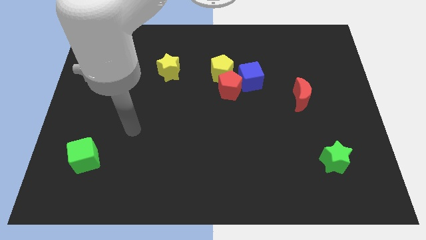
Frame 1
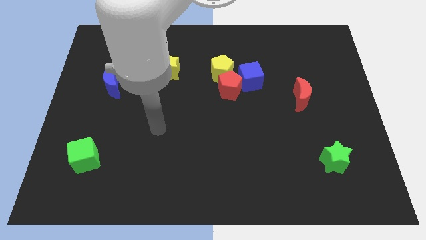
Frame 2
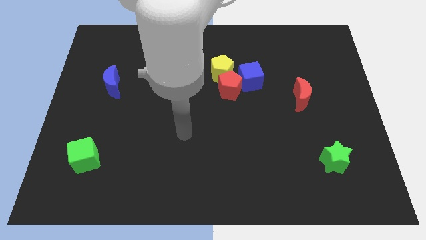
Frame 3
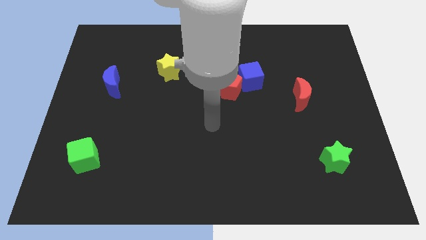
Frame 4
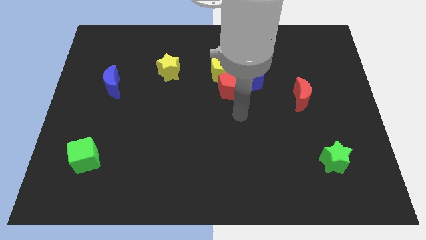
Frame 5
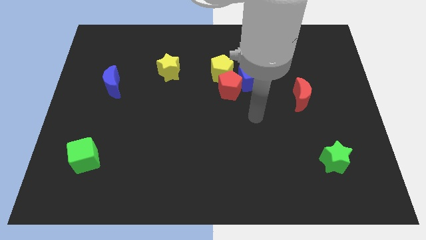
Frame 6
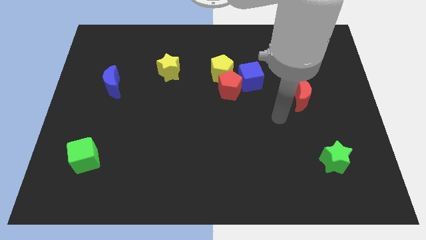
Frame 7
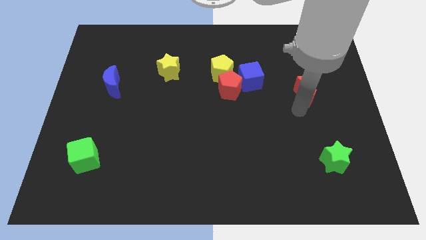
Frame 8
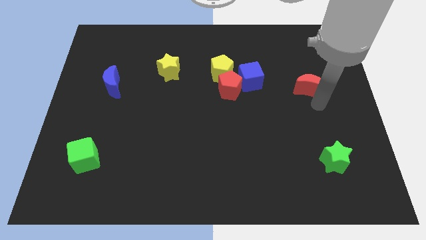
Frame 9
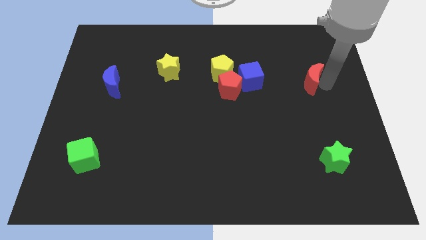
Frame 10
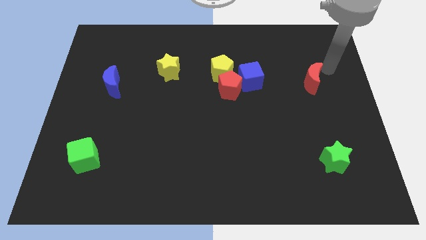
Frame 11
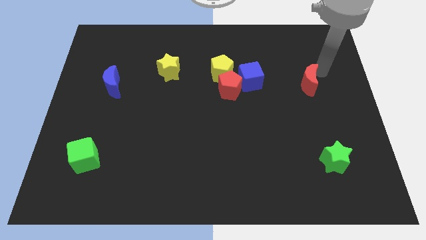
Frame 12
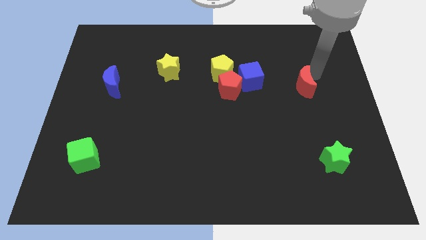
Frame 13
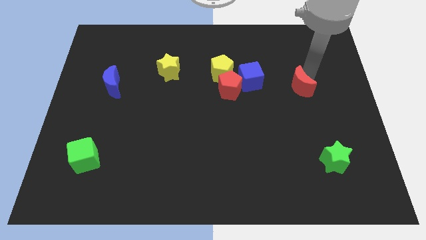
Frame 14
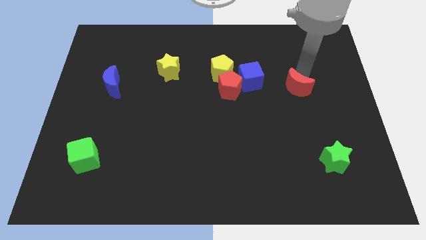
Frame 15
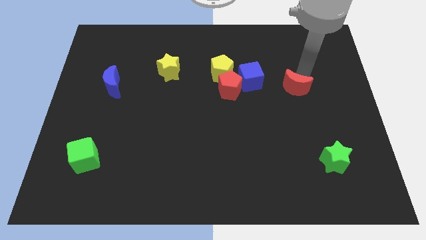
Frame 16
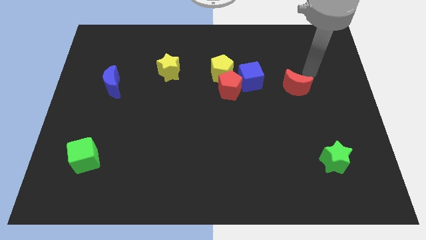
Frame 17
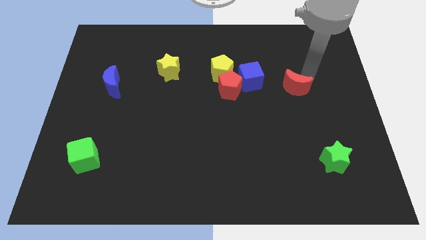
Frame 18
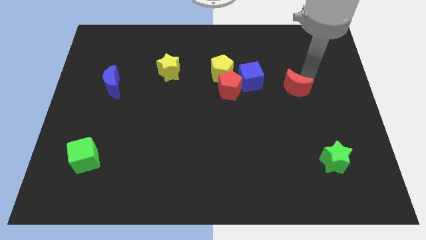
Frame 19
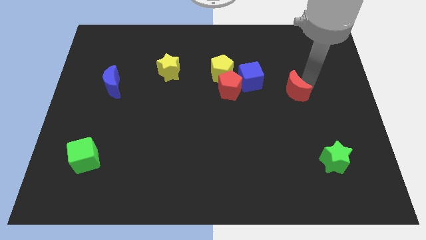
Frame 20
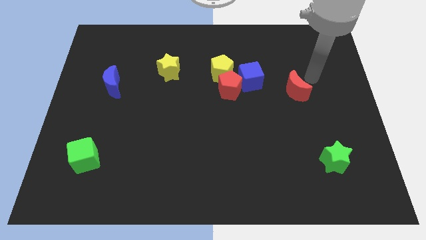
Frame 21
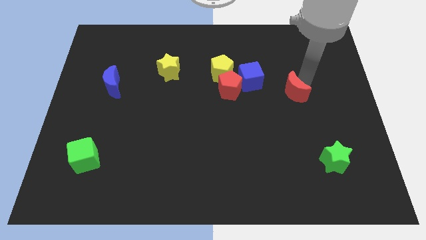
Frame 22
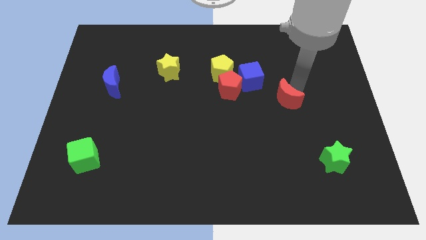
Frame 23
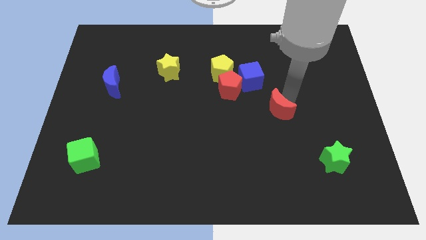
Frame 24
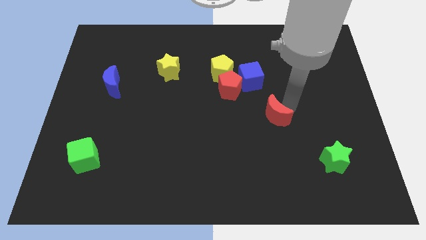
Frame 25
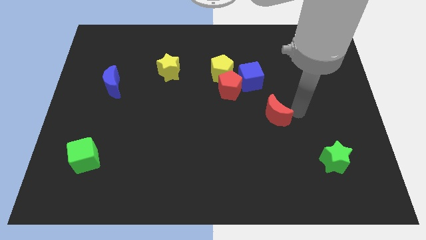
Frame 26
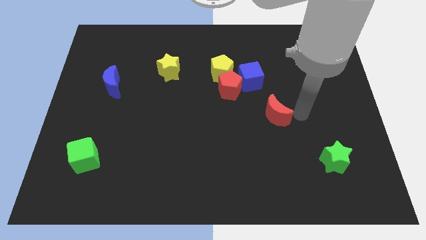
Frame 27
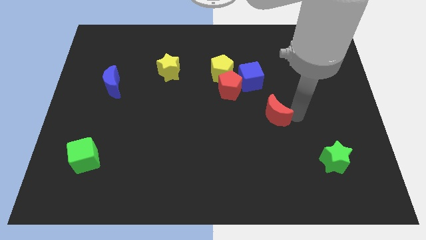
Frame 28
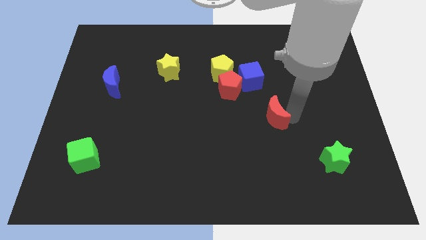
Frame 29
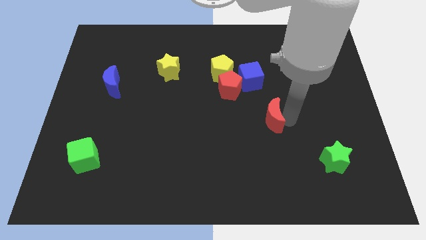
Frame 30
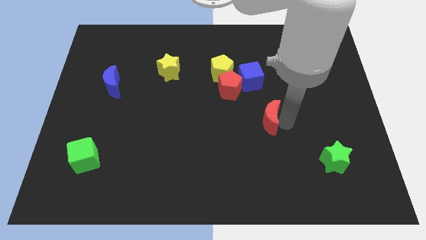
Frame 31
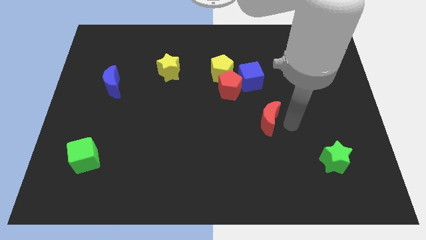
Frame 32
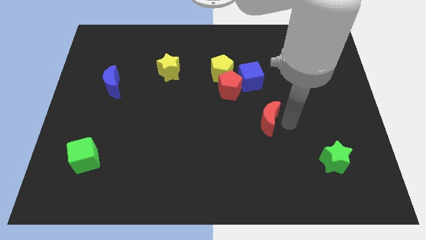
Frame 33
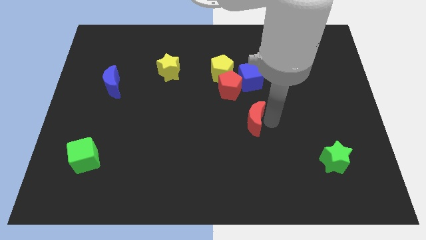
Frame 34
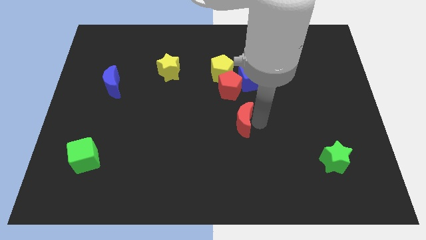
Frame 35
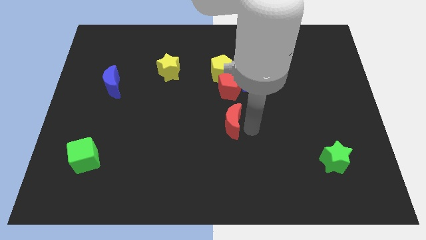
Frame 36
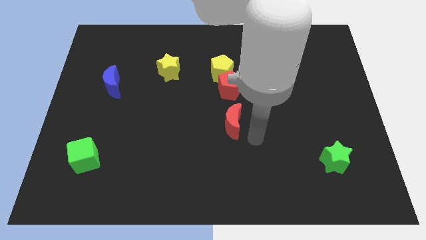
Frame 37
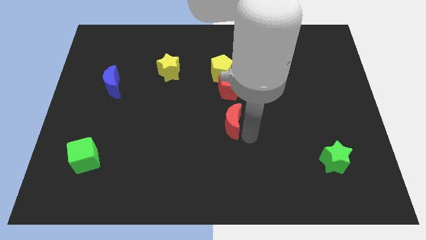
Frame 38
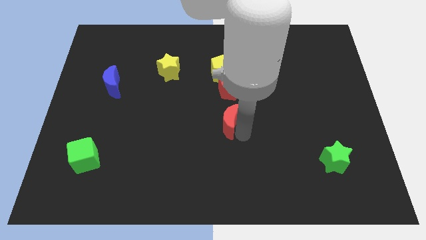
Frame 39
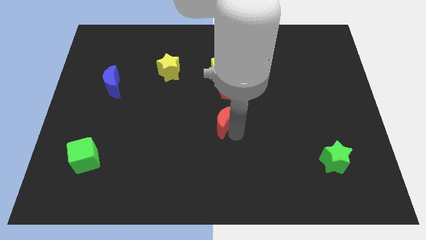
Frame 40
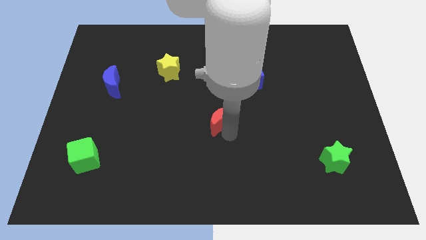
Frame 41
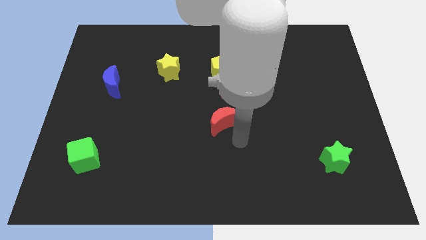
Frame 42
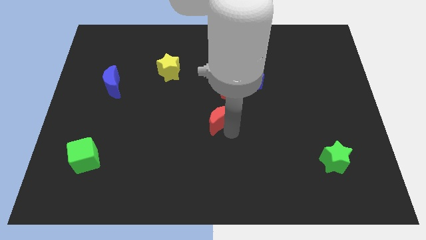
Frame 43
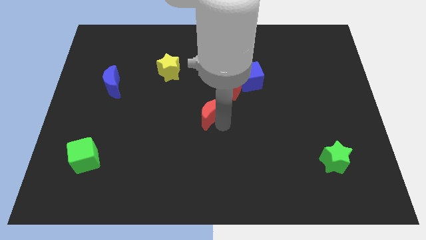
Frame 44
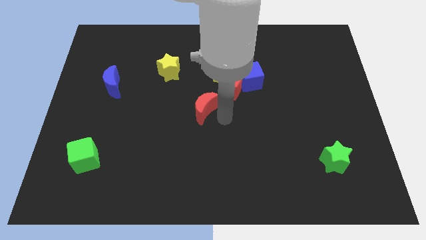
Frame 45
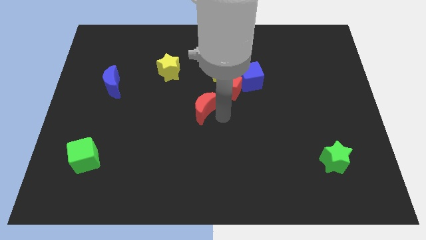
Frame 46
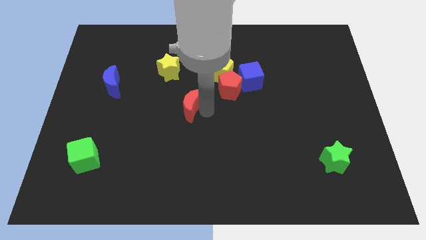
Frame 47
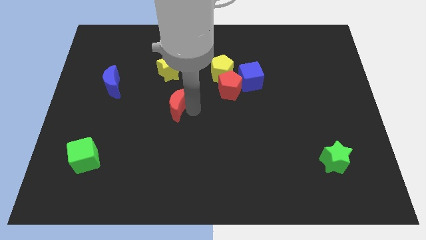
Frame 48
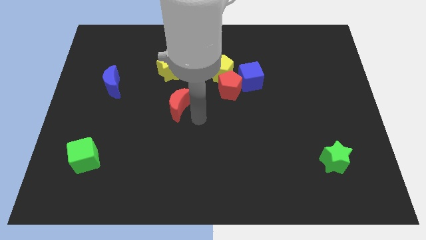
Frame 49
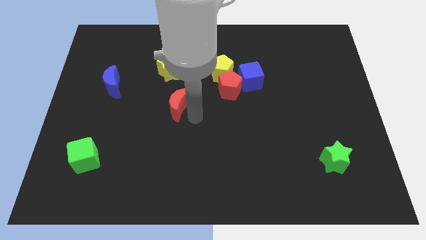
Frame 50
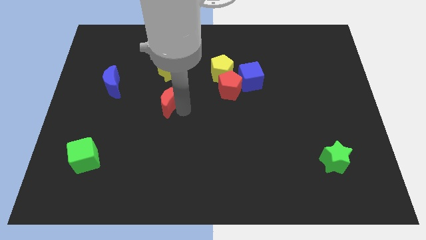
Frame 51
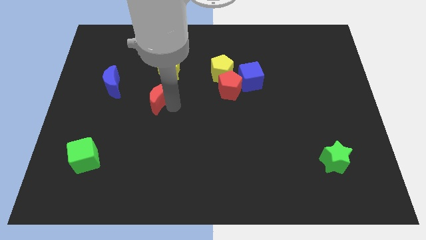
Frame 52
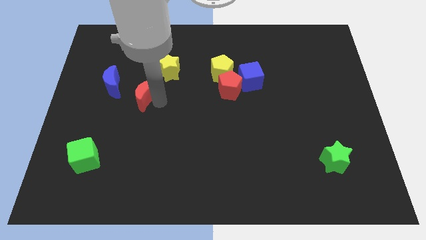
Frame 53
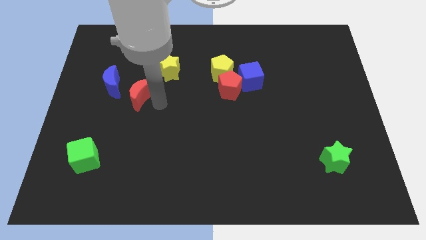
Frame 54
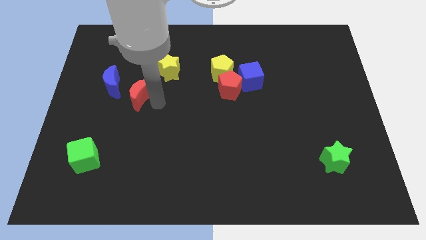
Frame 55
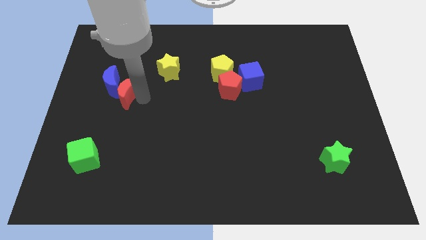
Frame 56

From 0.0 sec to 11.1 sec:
move the red moon to the blue moon

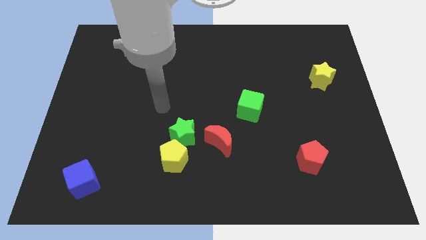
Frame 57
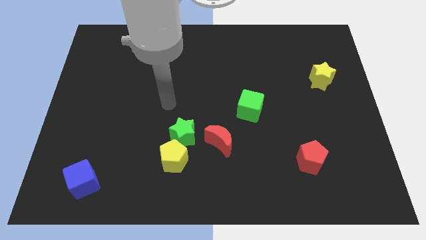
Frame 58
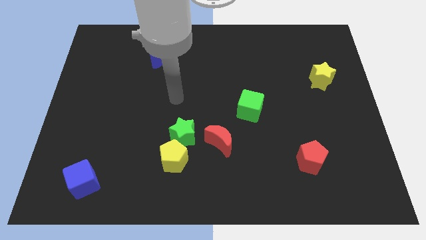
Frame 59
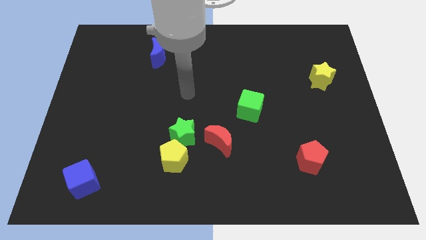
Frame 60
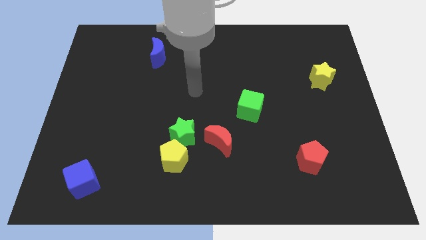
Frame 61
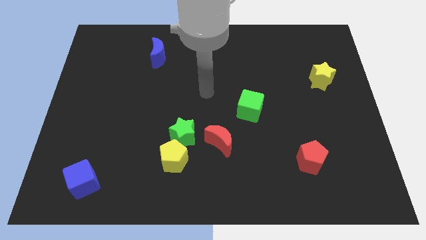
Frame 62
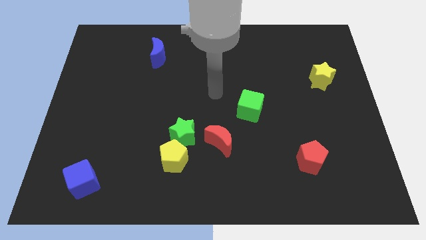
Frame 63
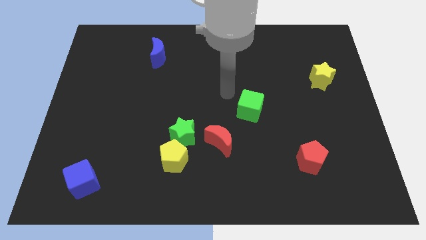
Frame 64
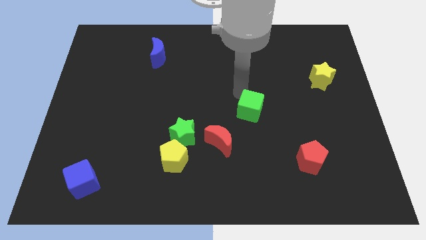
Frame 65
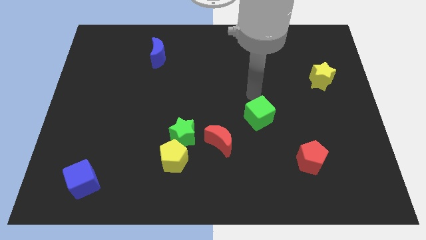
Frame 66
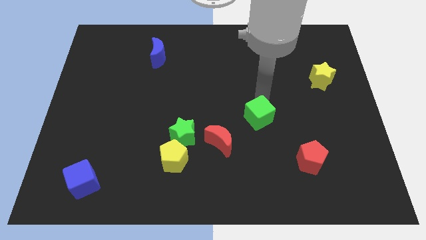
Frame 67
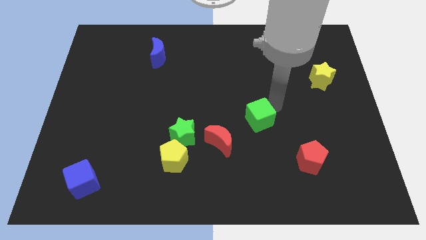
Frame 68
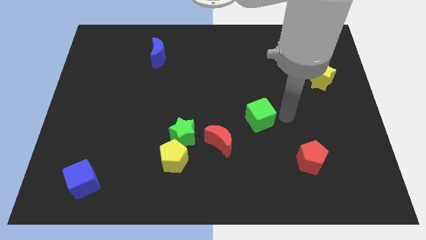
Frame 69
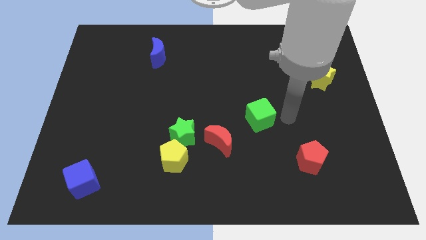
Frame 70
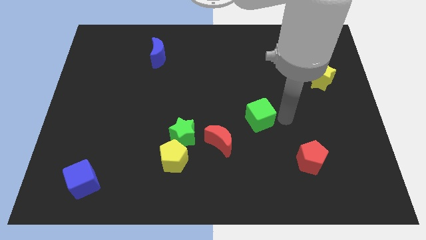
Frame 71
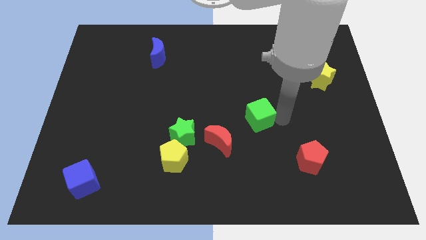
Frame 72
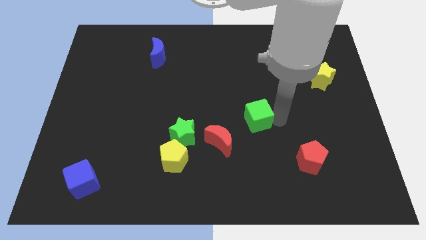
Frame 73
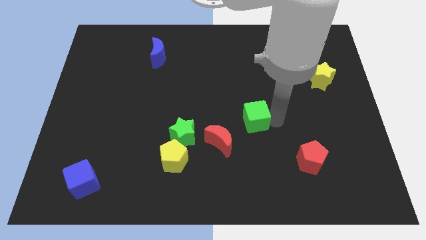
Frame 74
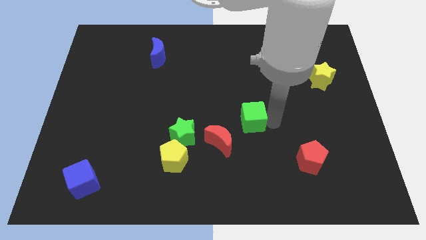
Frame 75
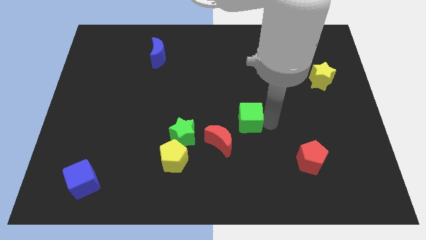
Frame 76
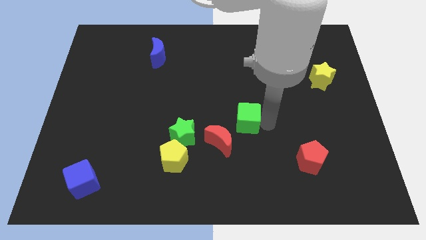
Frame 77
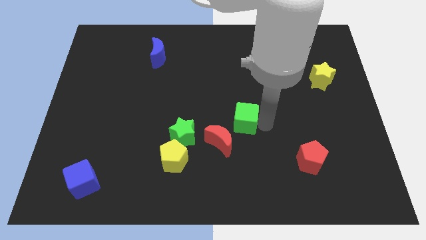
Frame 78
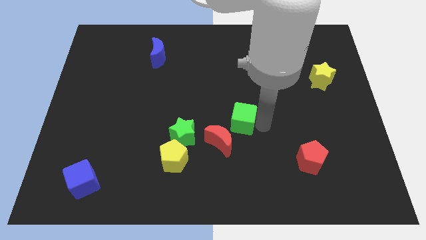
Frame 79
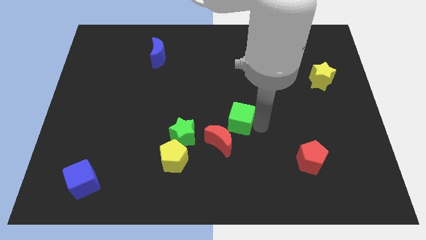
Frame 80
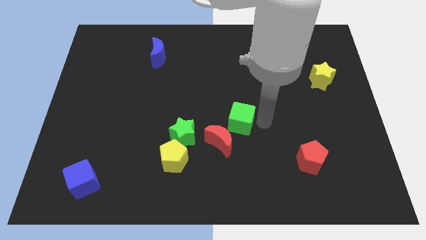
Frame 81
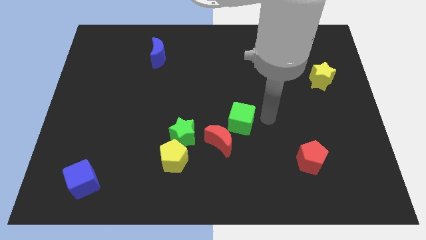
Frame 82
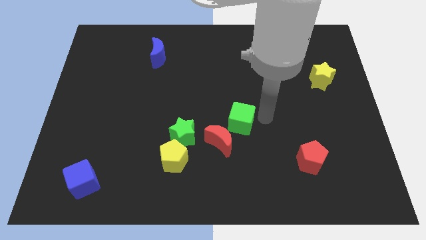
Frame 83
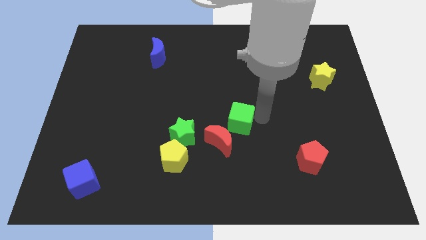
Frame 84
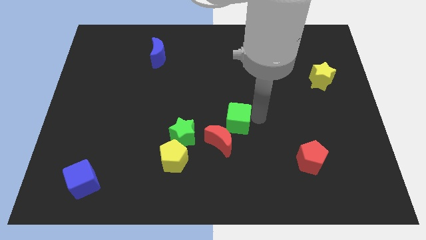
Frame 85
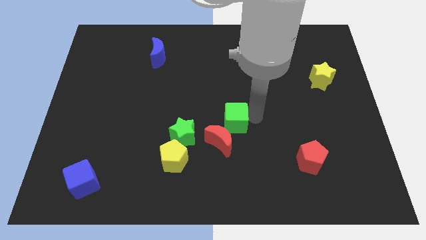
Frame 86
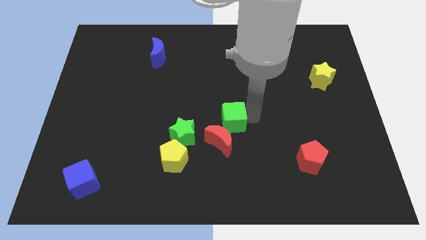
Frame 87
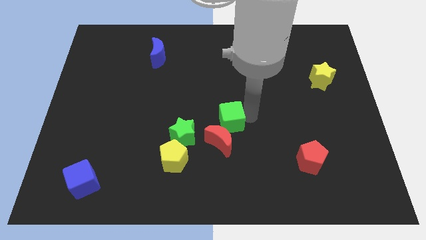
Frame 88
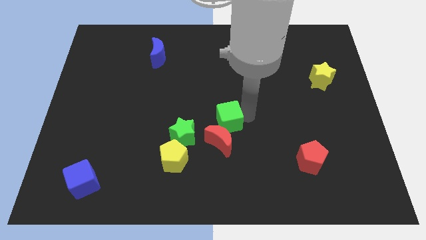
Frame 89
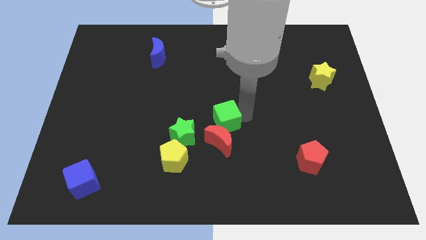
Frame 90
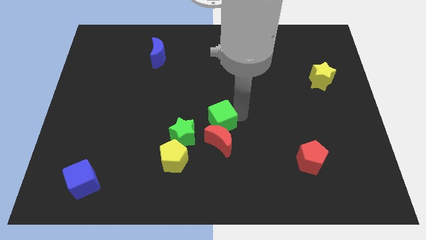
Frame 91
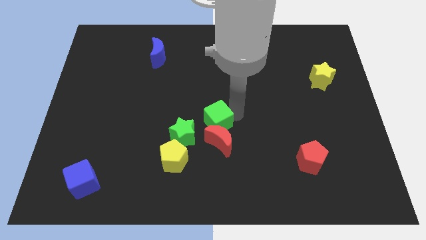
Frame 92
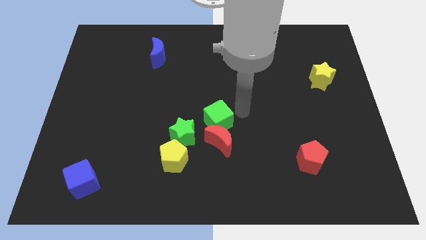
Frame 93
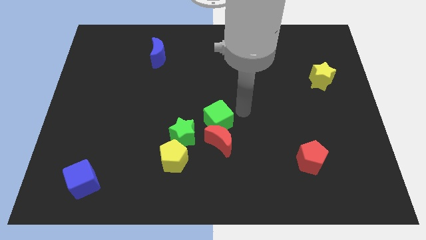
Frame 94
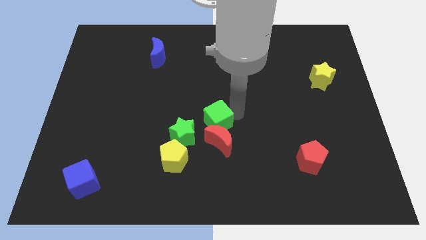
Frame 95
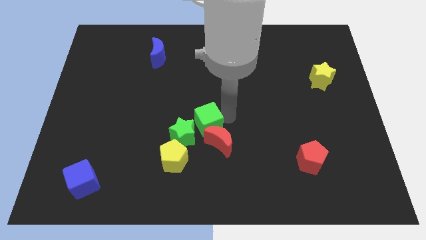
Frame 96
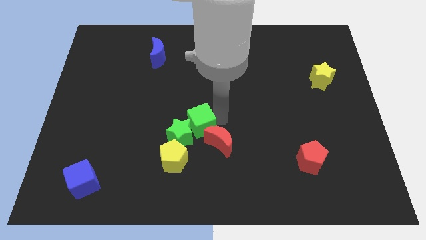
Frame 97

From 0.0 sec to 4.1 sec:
slide the green cube to the green star
